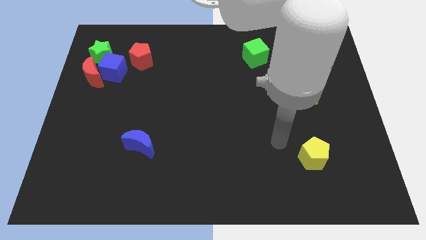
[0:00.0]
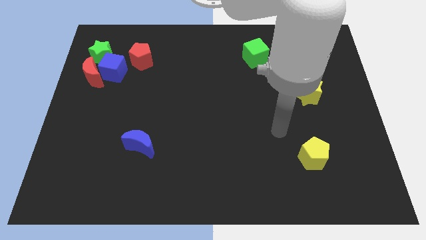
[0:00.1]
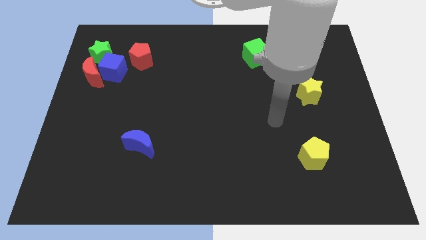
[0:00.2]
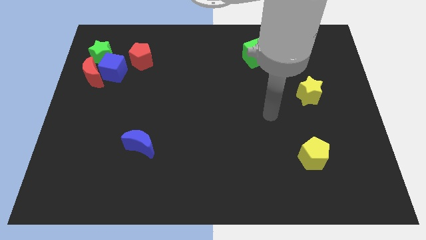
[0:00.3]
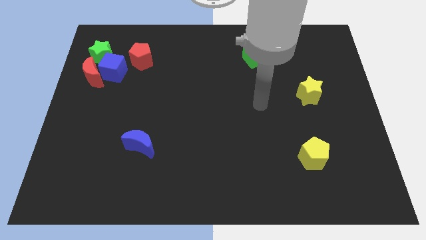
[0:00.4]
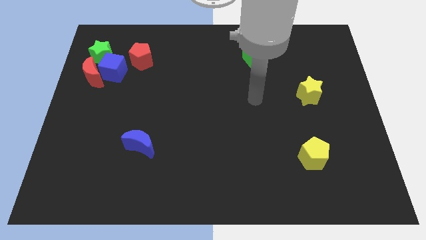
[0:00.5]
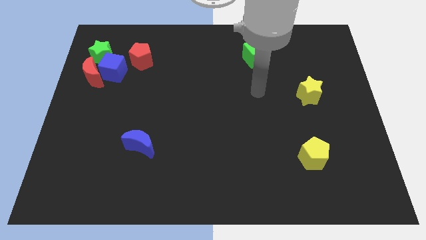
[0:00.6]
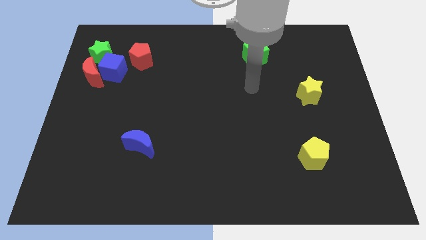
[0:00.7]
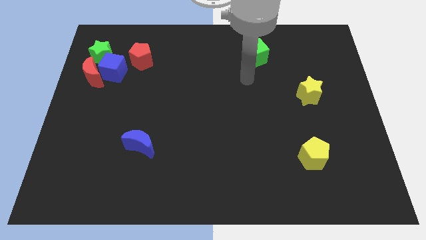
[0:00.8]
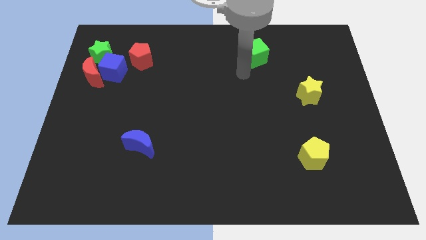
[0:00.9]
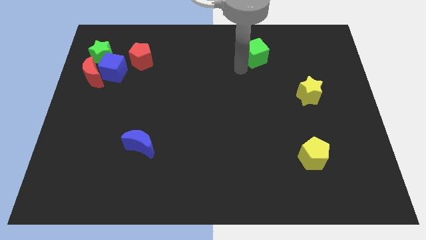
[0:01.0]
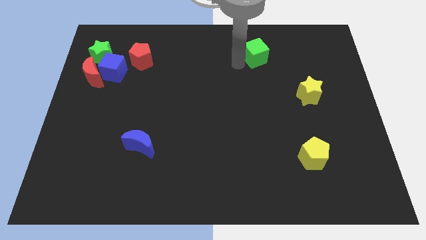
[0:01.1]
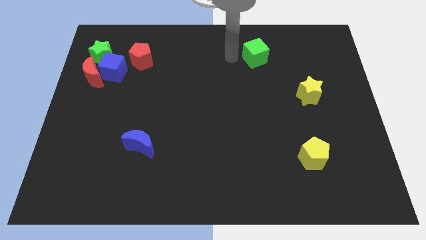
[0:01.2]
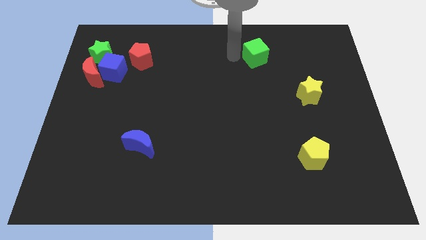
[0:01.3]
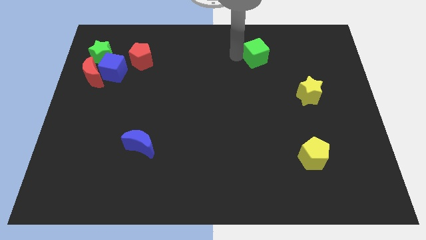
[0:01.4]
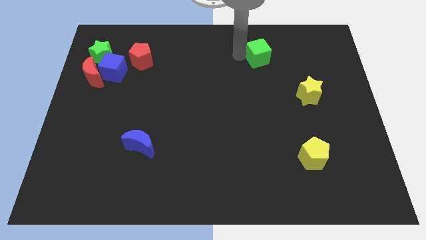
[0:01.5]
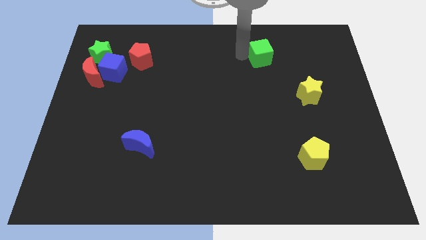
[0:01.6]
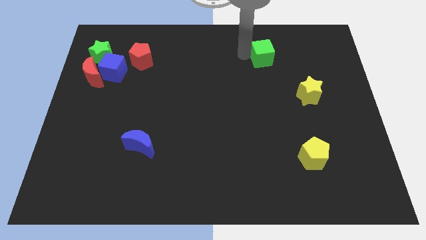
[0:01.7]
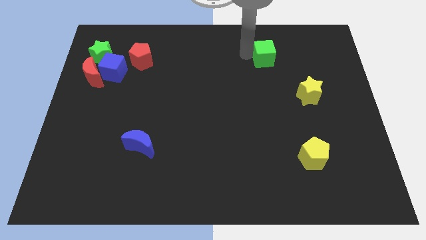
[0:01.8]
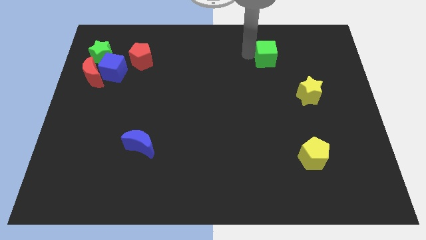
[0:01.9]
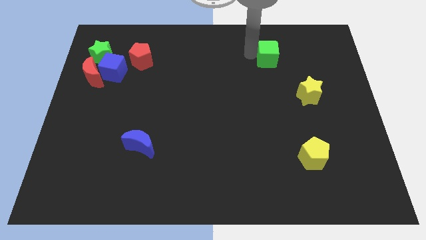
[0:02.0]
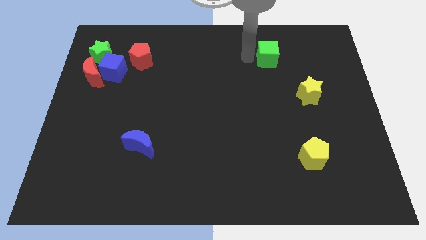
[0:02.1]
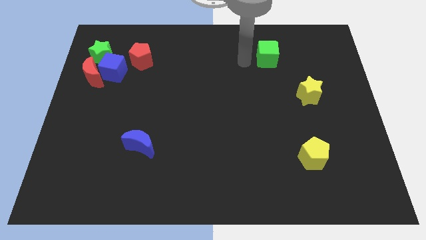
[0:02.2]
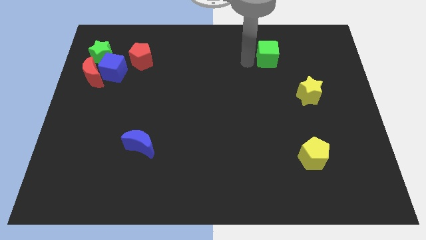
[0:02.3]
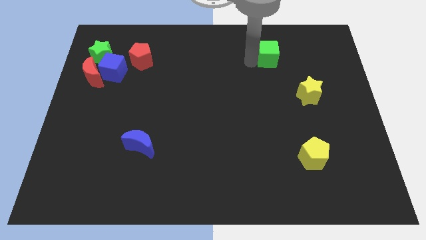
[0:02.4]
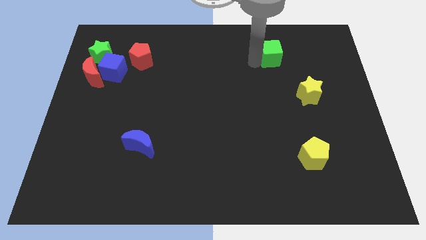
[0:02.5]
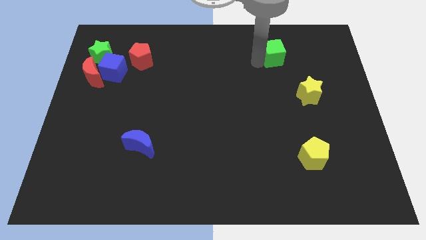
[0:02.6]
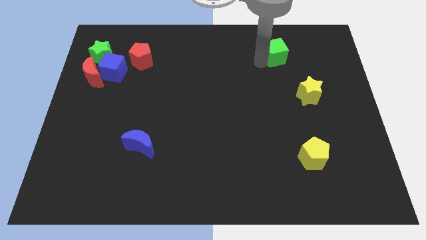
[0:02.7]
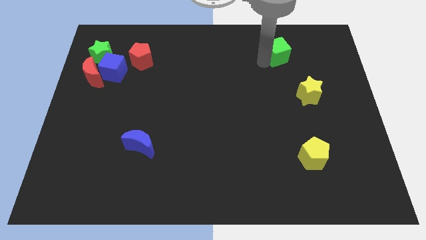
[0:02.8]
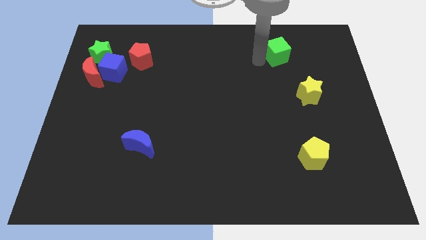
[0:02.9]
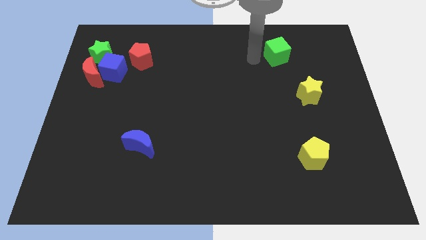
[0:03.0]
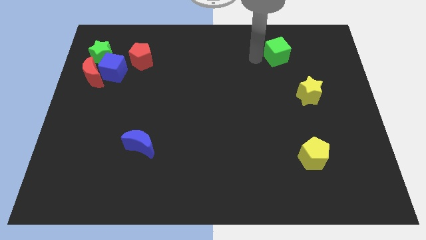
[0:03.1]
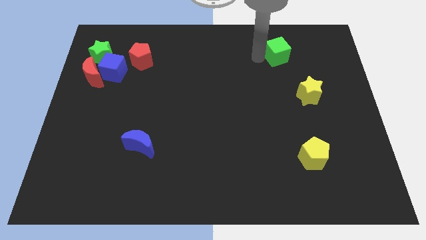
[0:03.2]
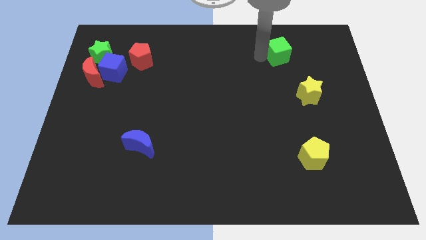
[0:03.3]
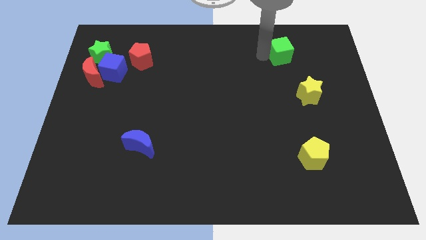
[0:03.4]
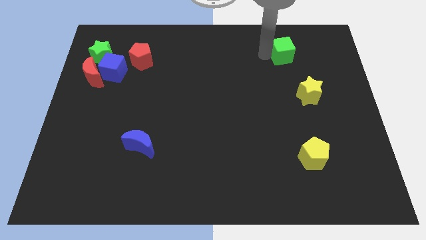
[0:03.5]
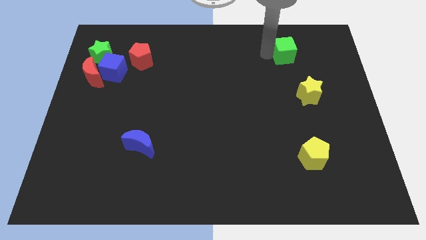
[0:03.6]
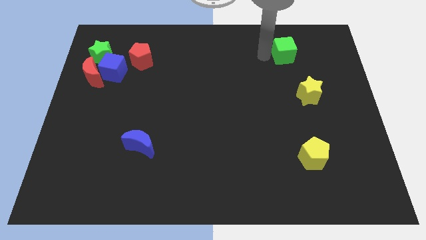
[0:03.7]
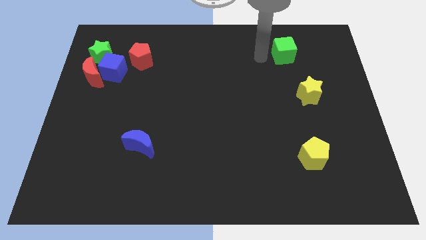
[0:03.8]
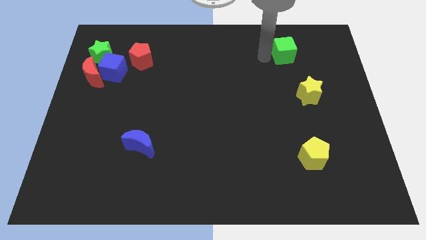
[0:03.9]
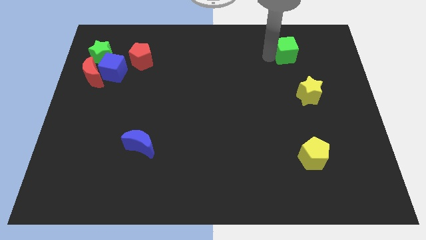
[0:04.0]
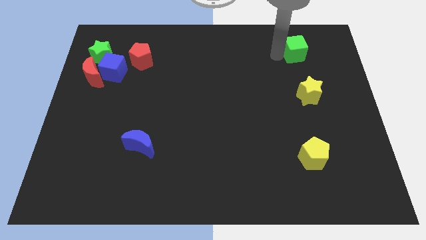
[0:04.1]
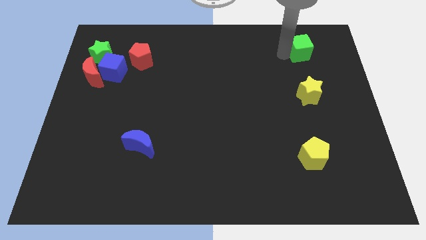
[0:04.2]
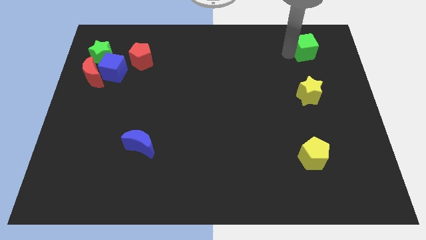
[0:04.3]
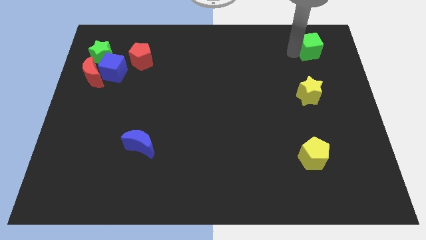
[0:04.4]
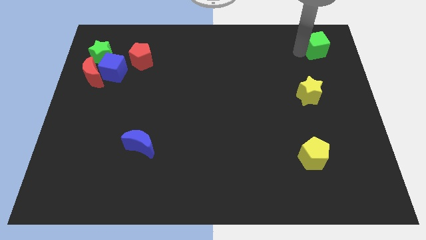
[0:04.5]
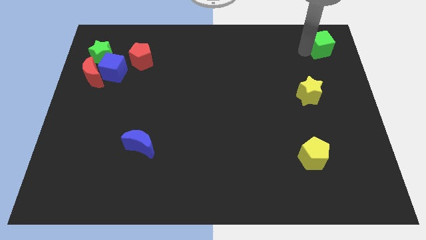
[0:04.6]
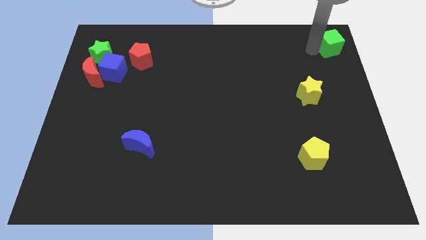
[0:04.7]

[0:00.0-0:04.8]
move the green cube to the top right

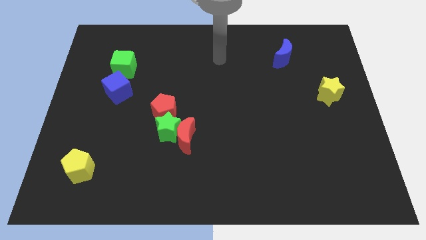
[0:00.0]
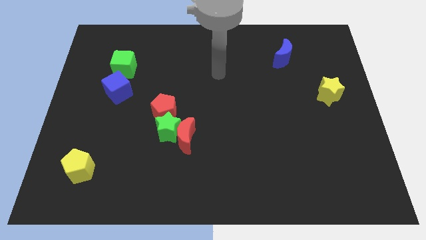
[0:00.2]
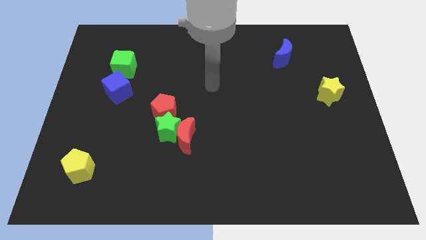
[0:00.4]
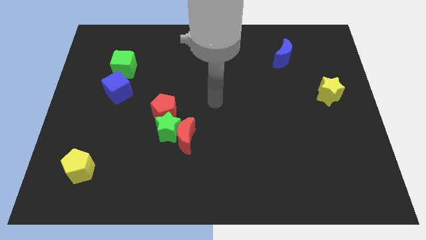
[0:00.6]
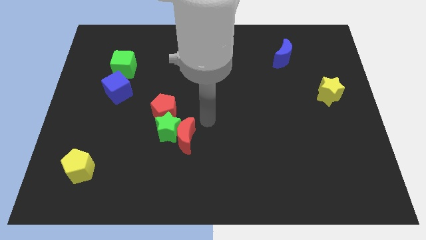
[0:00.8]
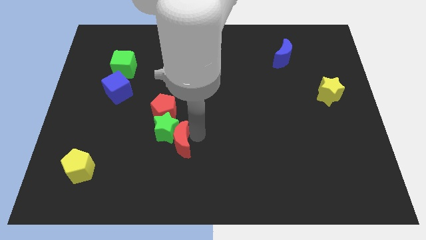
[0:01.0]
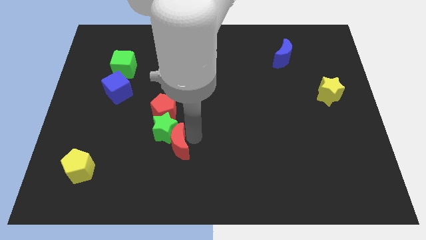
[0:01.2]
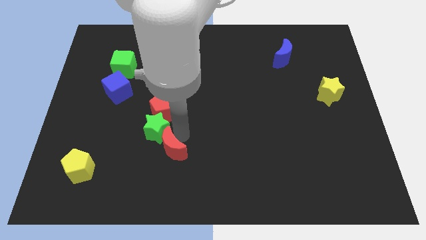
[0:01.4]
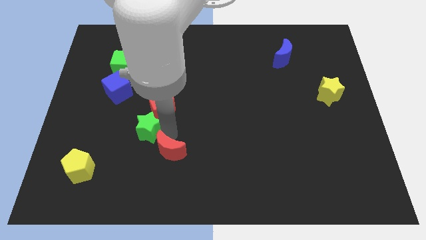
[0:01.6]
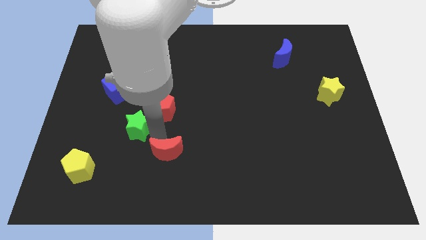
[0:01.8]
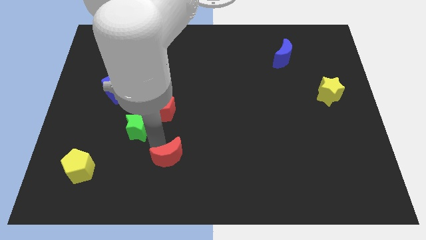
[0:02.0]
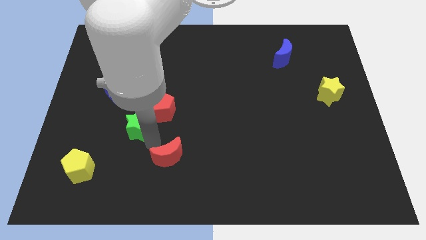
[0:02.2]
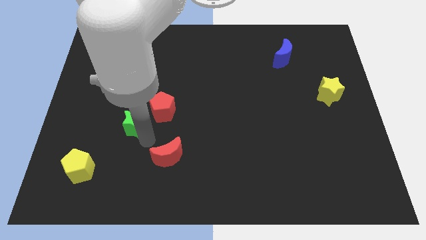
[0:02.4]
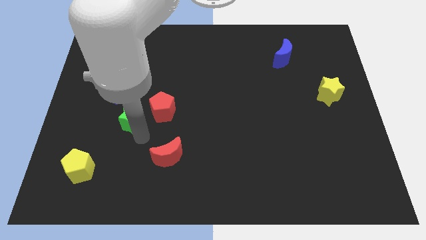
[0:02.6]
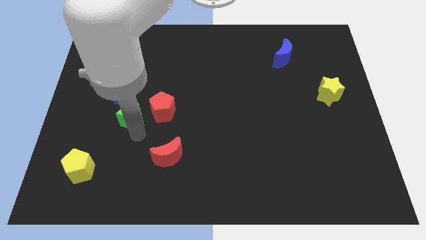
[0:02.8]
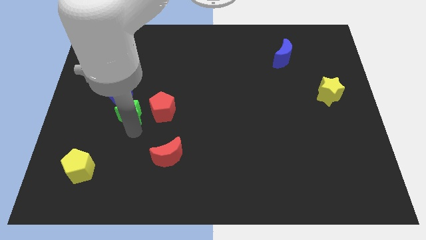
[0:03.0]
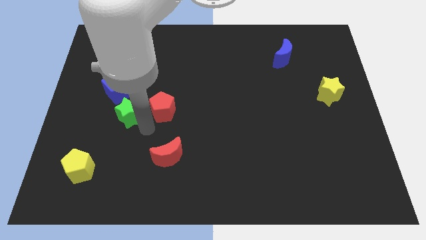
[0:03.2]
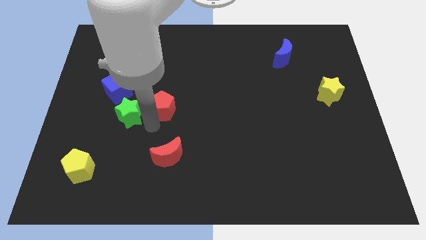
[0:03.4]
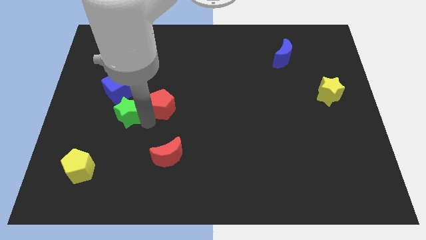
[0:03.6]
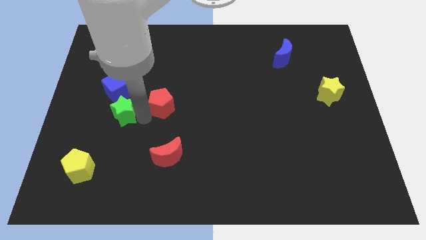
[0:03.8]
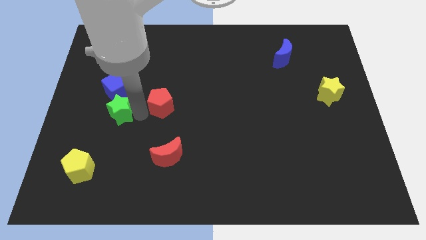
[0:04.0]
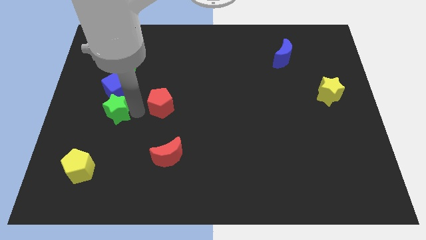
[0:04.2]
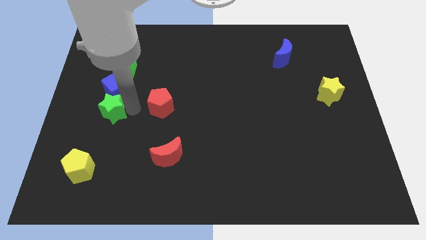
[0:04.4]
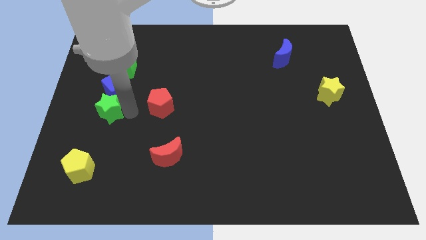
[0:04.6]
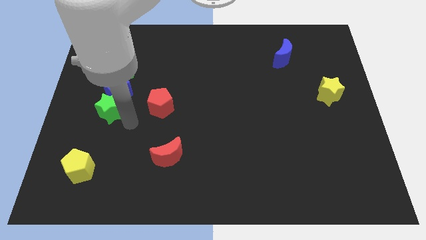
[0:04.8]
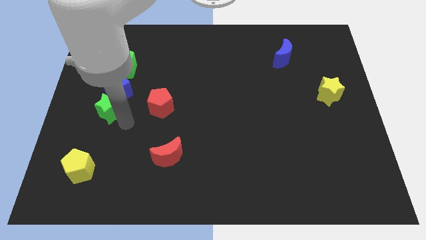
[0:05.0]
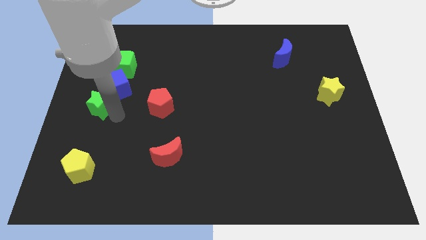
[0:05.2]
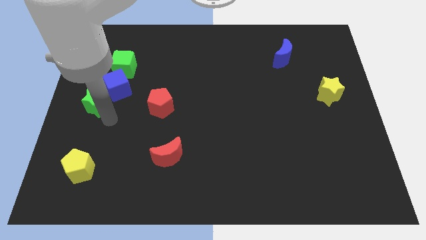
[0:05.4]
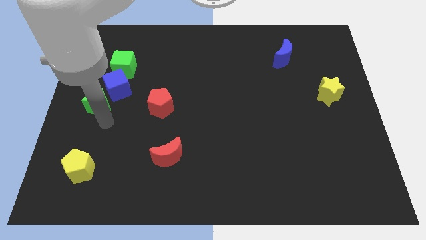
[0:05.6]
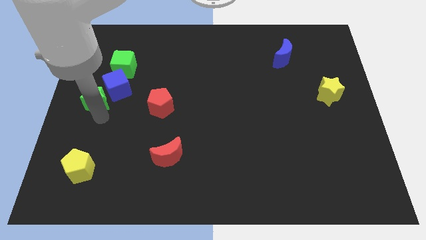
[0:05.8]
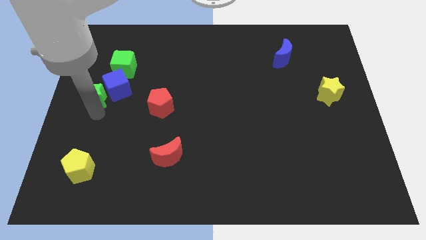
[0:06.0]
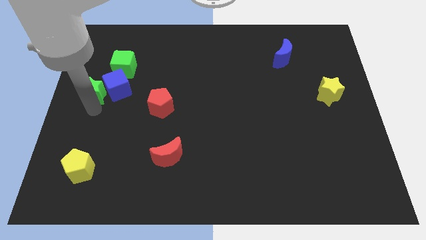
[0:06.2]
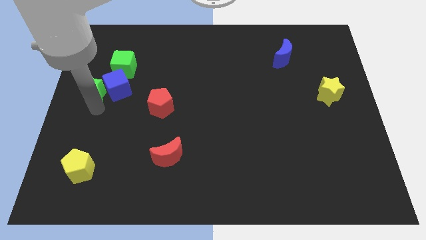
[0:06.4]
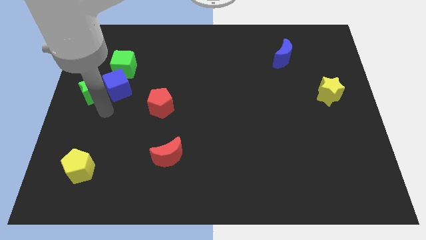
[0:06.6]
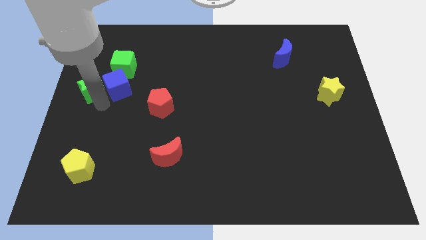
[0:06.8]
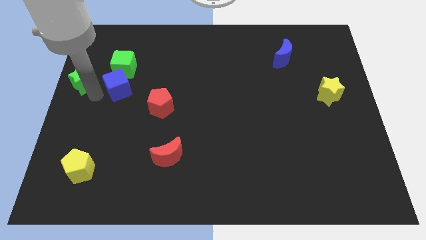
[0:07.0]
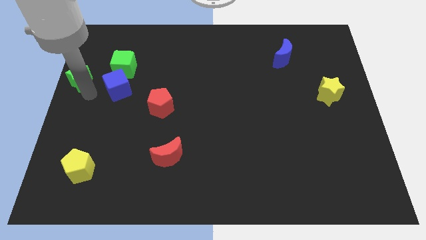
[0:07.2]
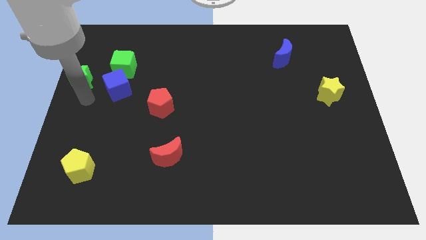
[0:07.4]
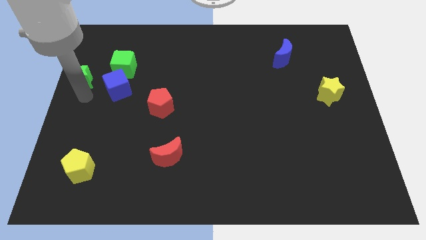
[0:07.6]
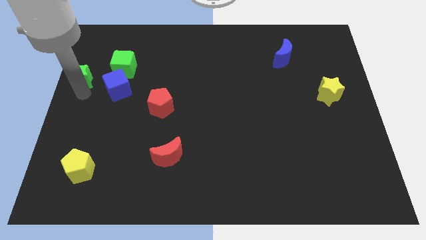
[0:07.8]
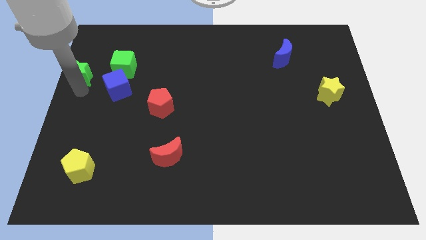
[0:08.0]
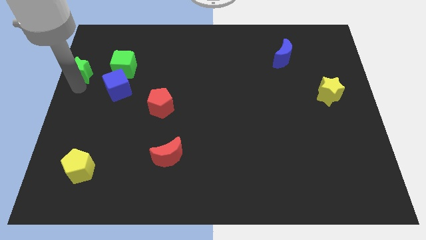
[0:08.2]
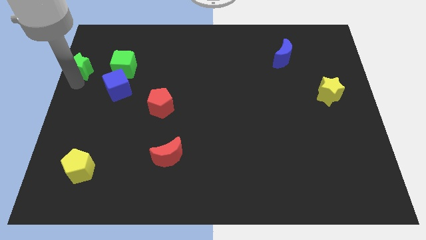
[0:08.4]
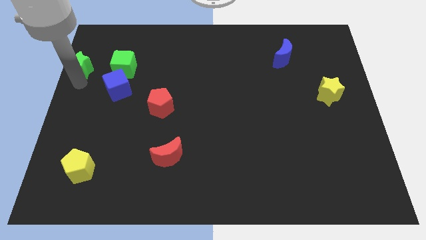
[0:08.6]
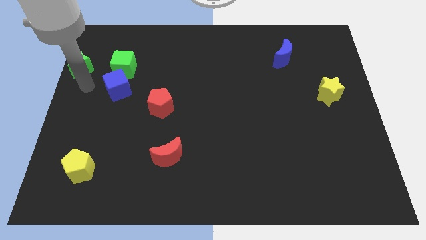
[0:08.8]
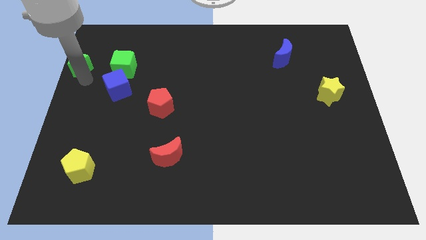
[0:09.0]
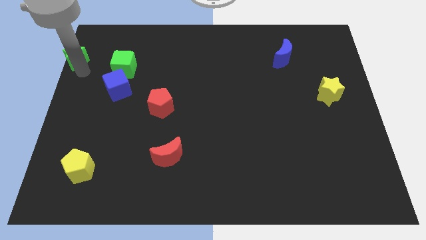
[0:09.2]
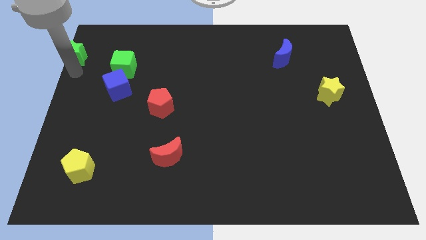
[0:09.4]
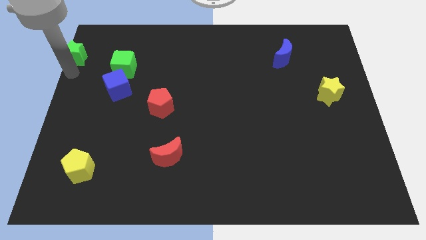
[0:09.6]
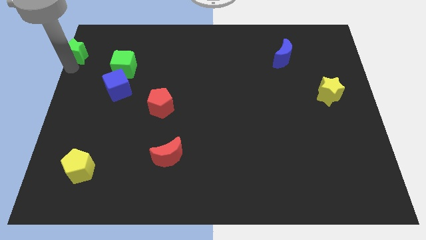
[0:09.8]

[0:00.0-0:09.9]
put the green star to the top left corner
